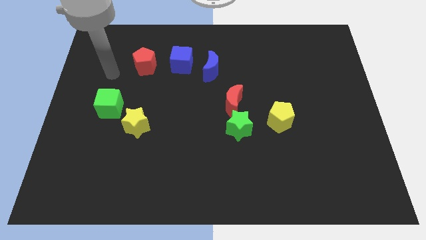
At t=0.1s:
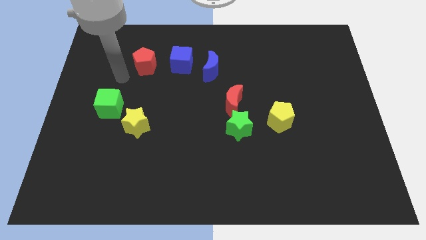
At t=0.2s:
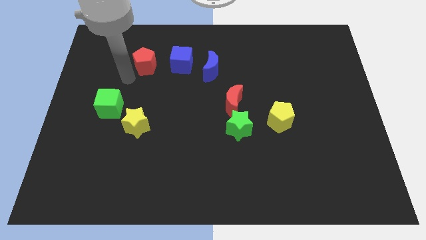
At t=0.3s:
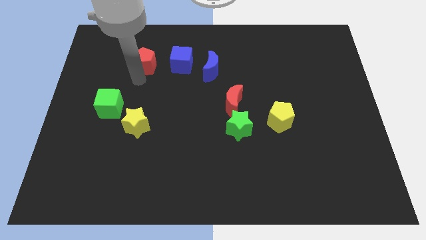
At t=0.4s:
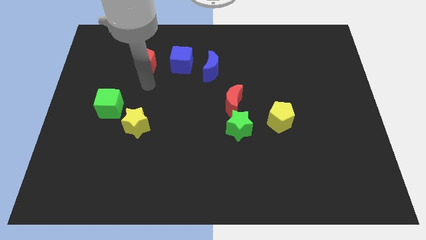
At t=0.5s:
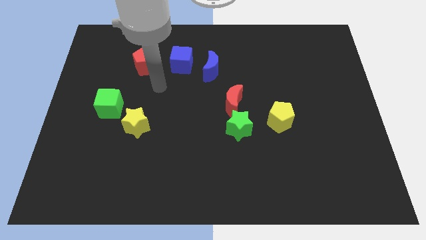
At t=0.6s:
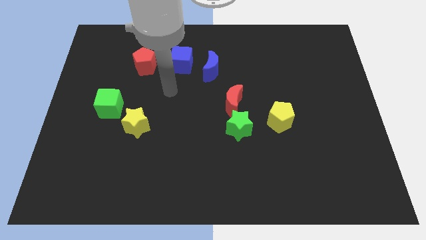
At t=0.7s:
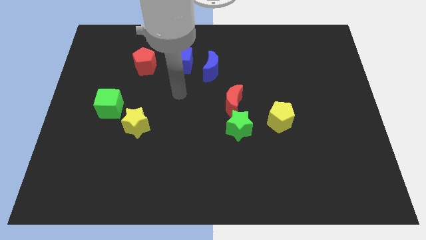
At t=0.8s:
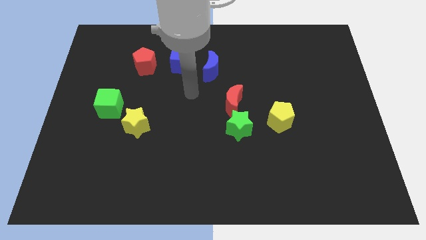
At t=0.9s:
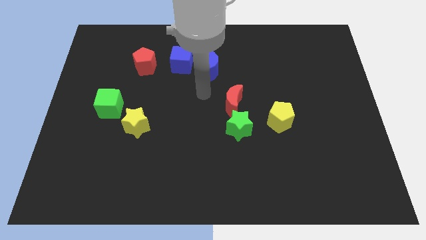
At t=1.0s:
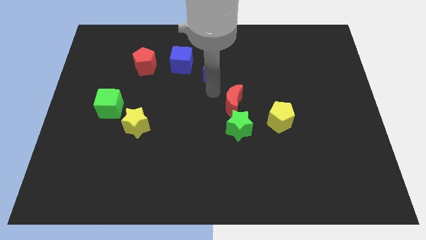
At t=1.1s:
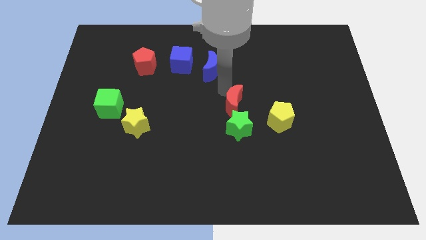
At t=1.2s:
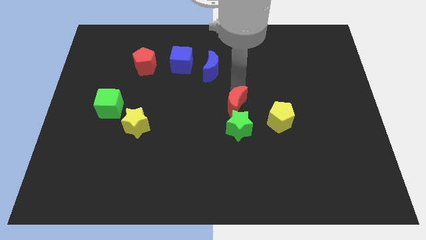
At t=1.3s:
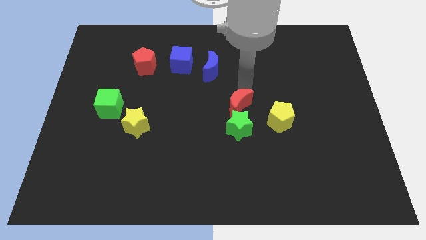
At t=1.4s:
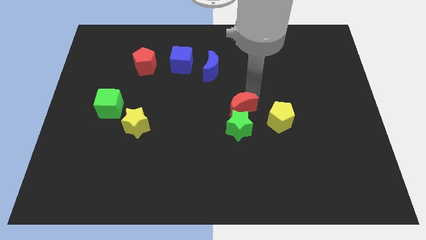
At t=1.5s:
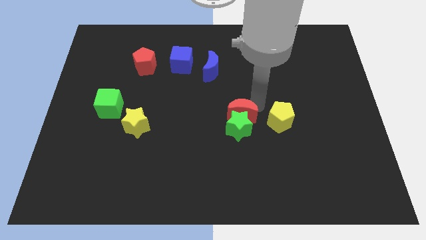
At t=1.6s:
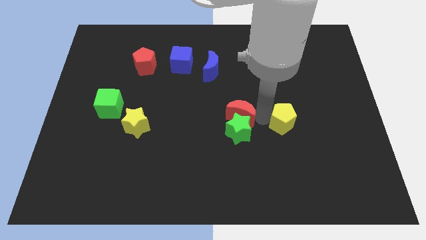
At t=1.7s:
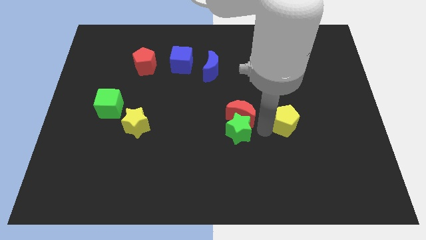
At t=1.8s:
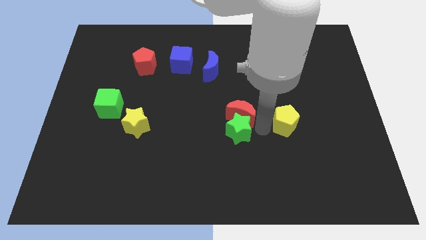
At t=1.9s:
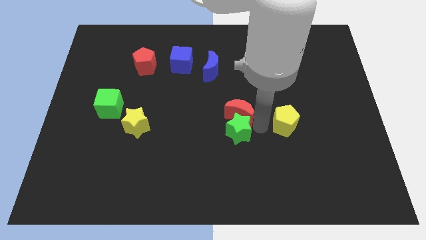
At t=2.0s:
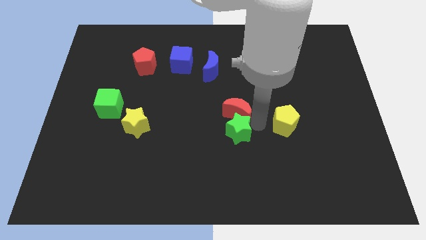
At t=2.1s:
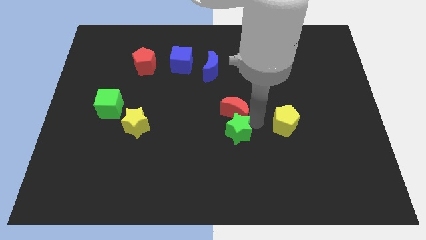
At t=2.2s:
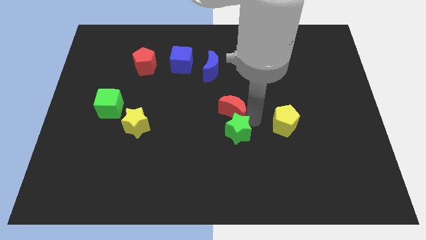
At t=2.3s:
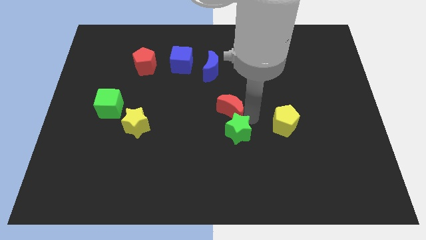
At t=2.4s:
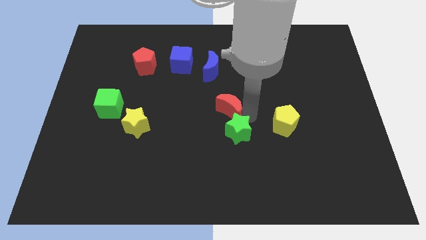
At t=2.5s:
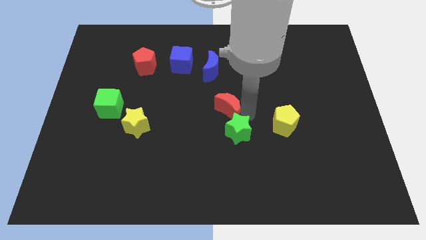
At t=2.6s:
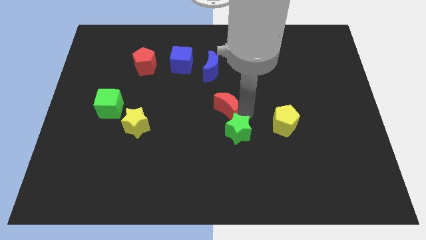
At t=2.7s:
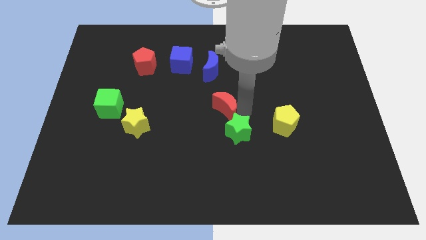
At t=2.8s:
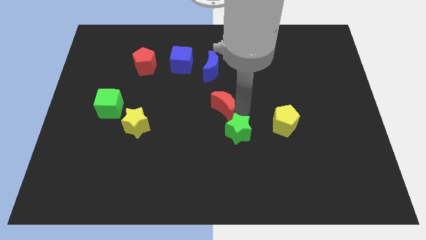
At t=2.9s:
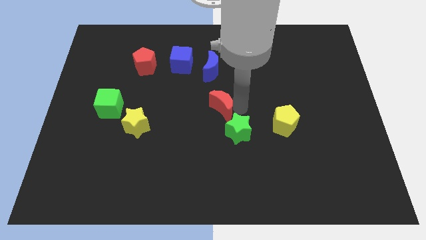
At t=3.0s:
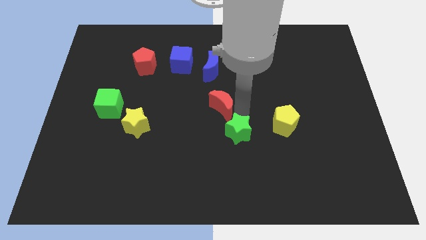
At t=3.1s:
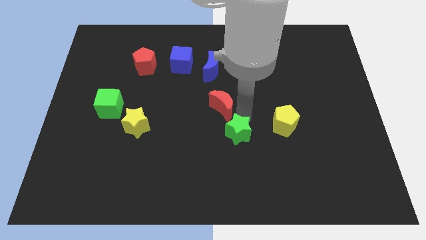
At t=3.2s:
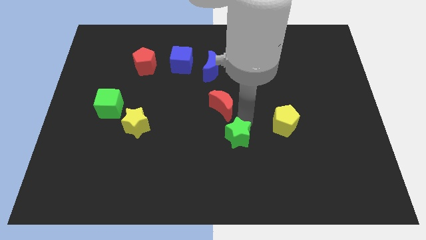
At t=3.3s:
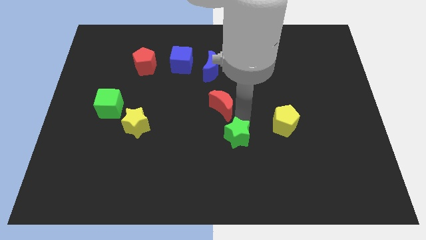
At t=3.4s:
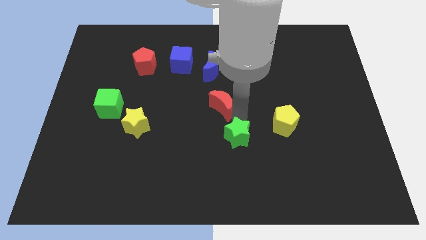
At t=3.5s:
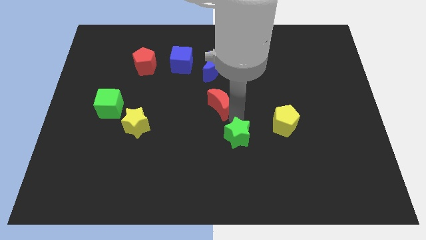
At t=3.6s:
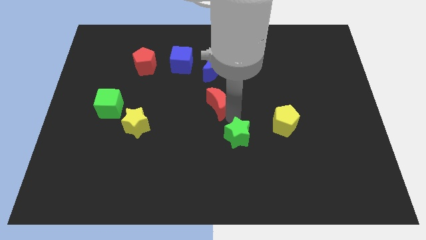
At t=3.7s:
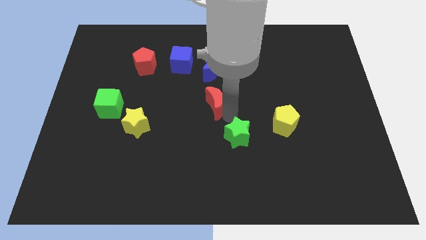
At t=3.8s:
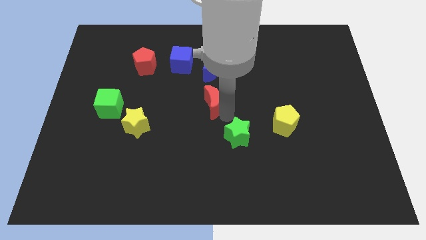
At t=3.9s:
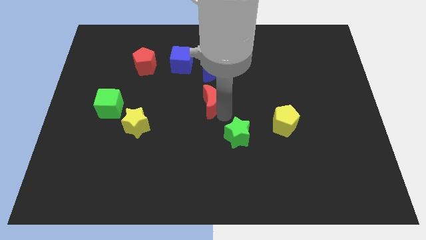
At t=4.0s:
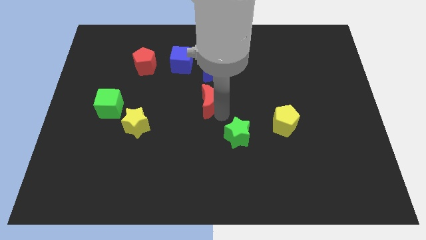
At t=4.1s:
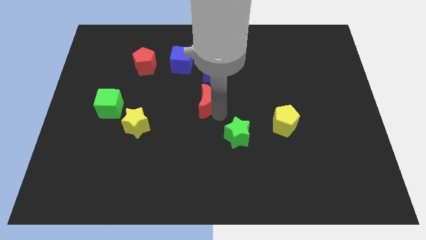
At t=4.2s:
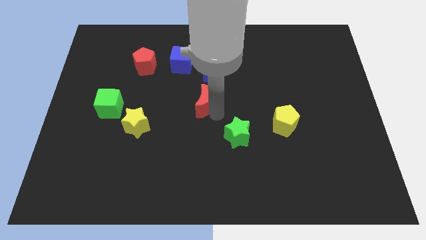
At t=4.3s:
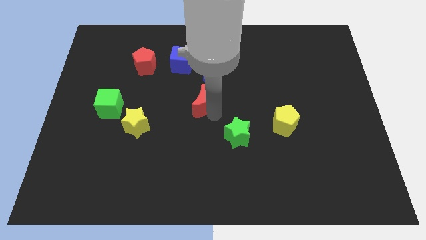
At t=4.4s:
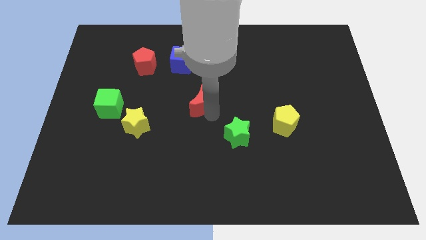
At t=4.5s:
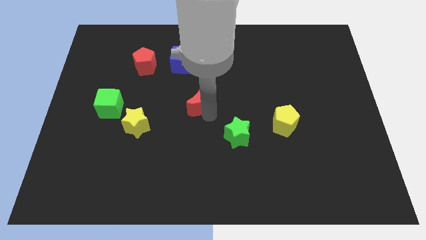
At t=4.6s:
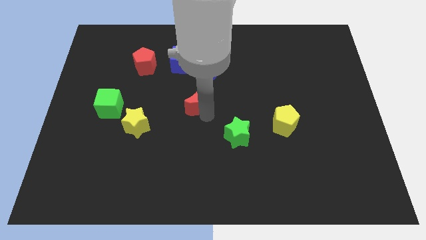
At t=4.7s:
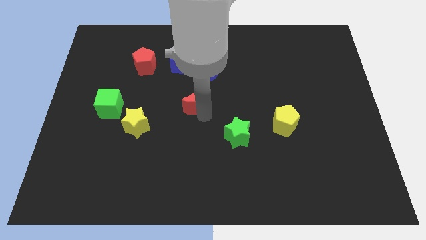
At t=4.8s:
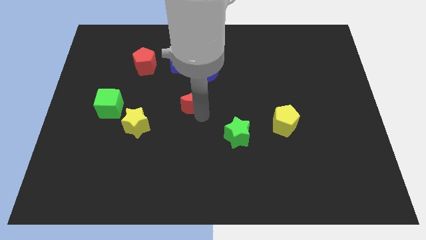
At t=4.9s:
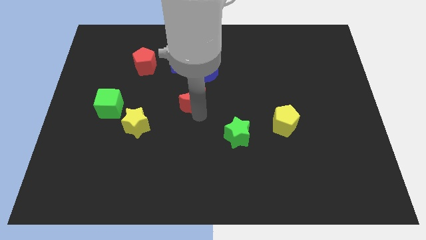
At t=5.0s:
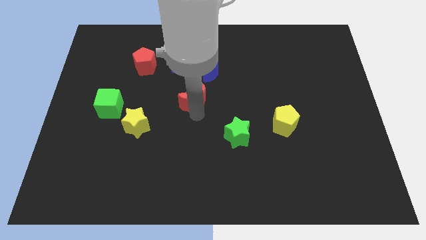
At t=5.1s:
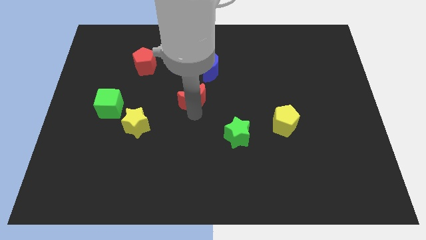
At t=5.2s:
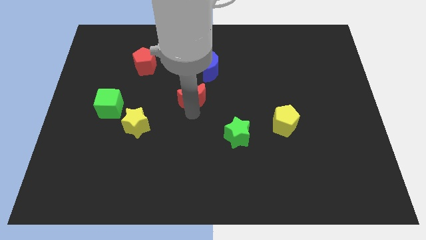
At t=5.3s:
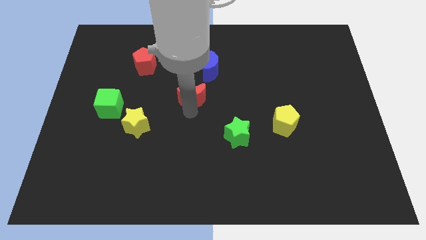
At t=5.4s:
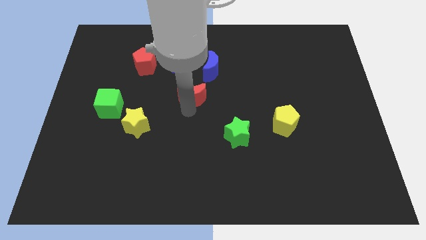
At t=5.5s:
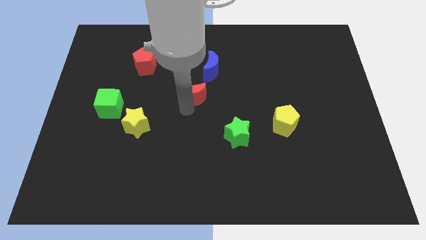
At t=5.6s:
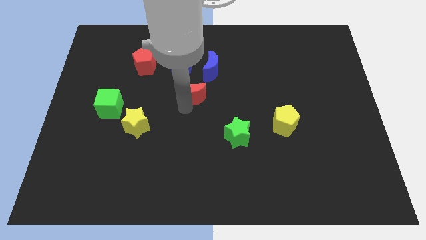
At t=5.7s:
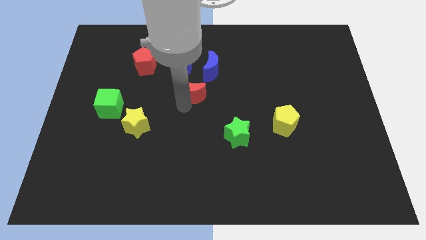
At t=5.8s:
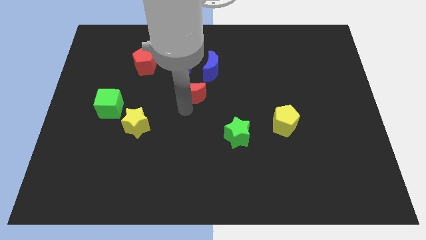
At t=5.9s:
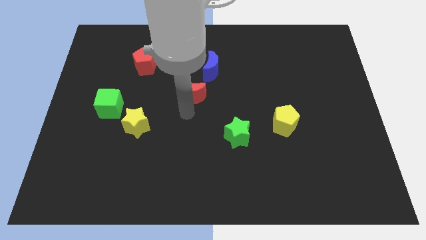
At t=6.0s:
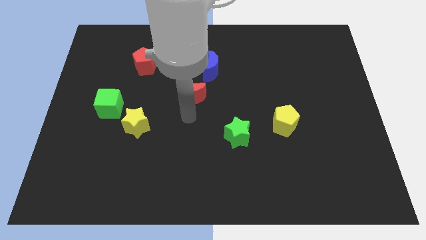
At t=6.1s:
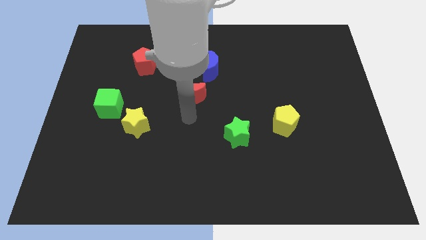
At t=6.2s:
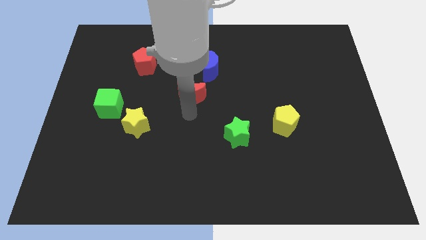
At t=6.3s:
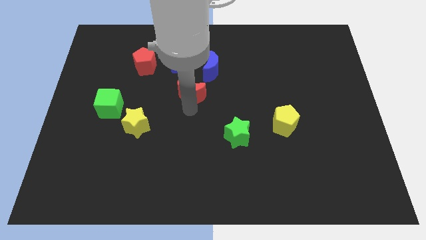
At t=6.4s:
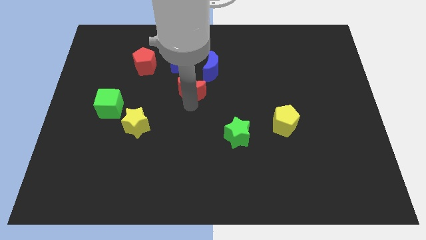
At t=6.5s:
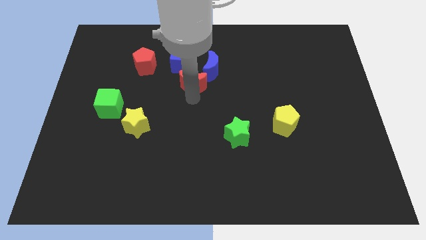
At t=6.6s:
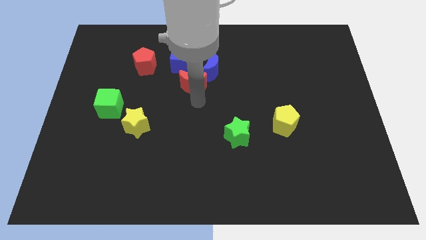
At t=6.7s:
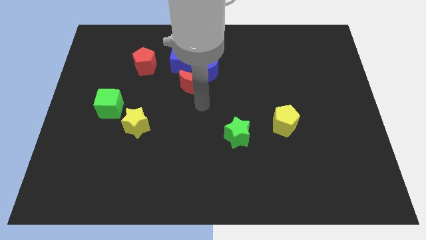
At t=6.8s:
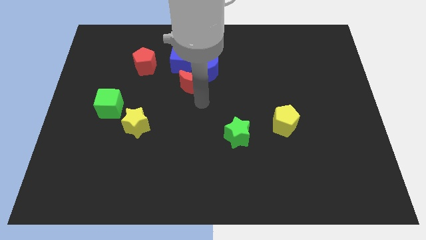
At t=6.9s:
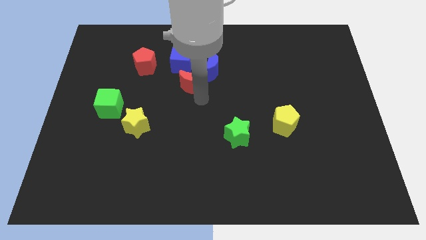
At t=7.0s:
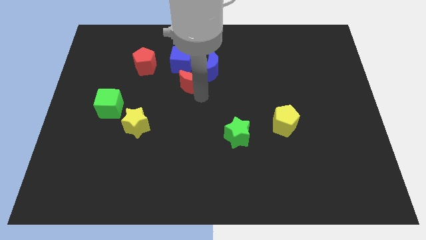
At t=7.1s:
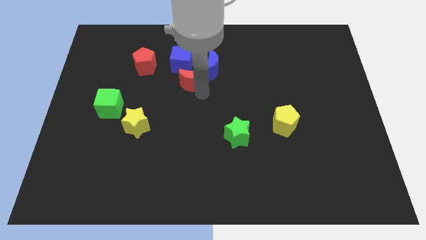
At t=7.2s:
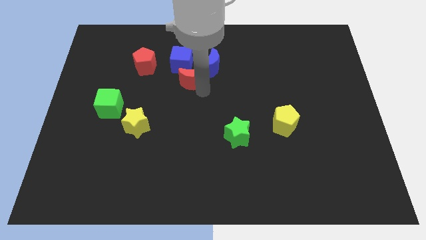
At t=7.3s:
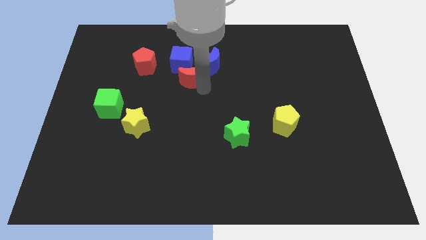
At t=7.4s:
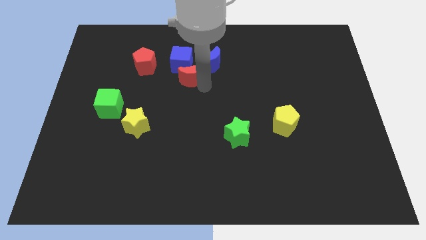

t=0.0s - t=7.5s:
move the red moon to the blue cube
